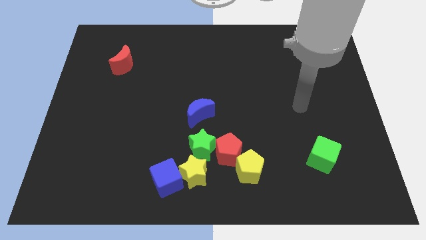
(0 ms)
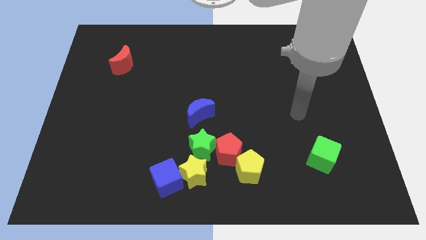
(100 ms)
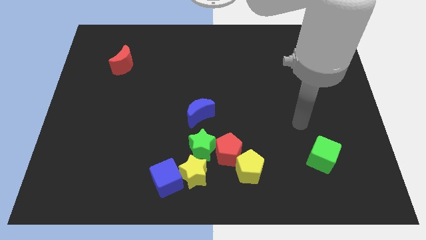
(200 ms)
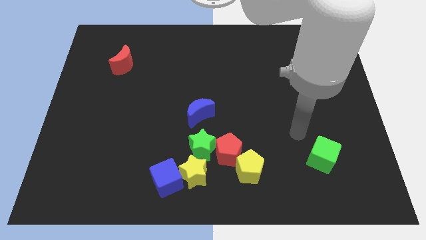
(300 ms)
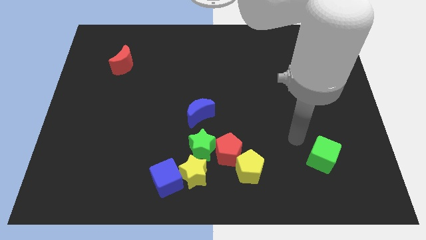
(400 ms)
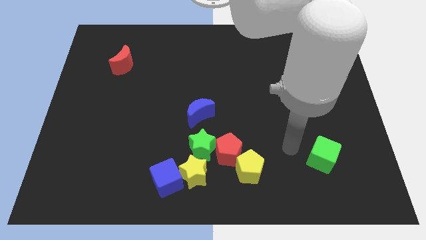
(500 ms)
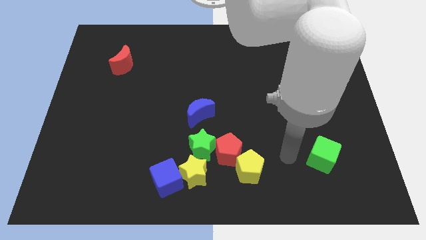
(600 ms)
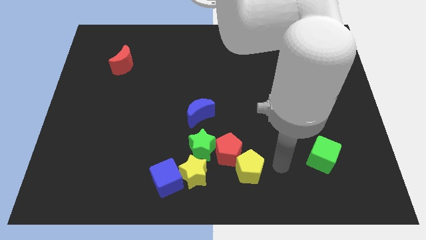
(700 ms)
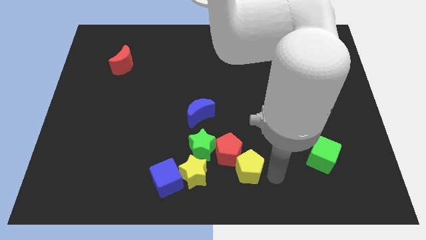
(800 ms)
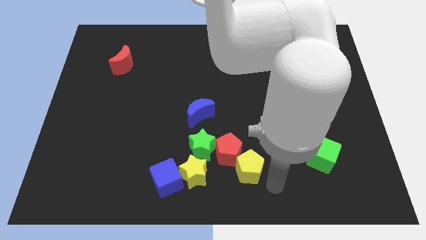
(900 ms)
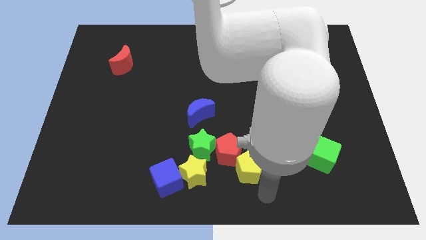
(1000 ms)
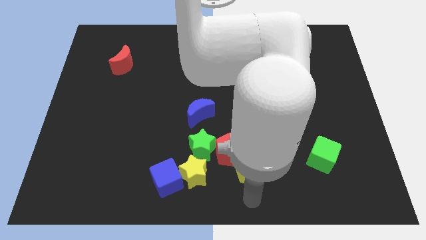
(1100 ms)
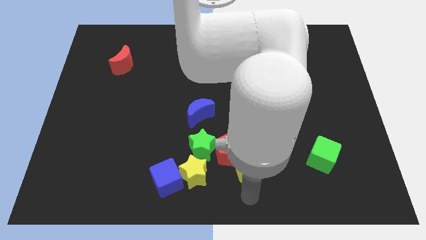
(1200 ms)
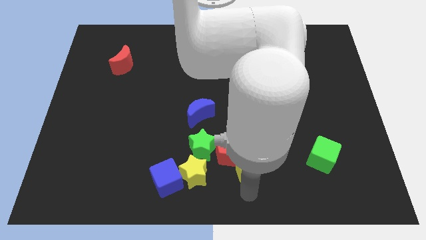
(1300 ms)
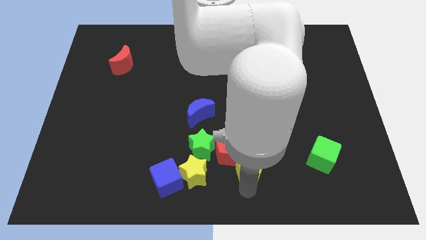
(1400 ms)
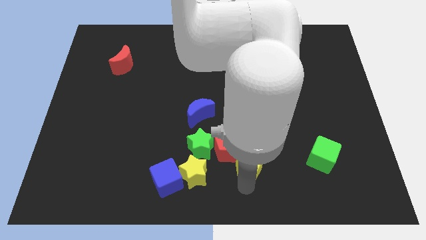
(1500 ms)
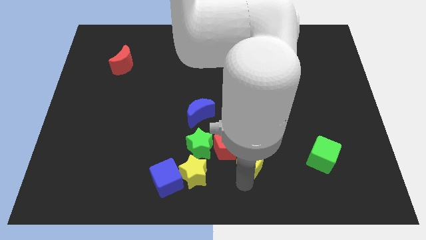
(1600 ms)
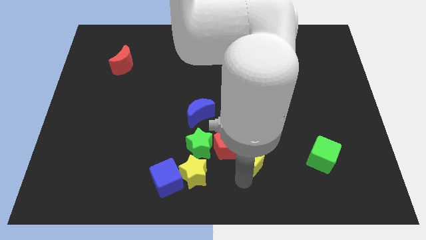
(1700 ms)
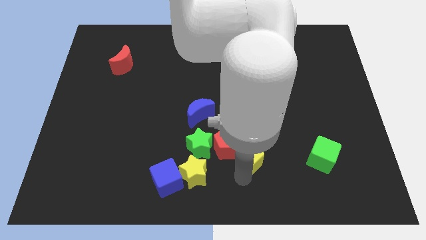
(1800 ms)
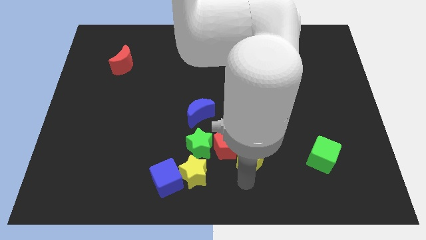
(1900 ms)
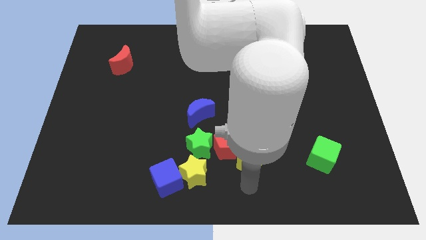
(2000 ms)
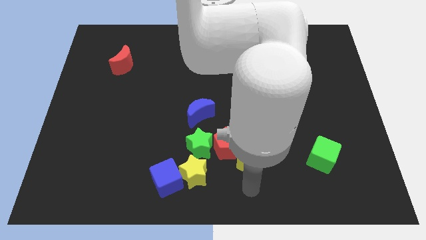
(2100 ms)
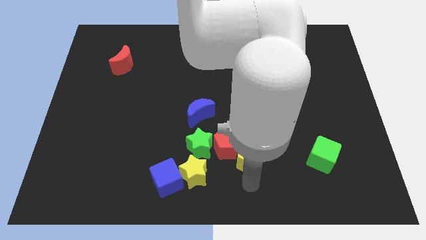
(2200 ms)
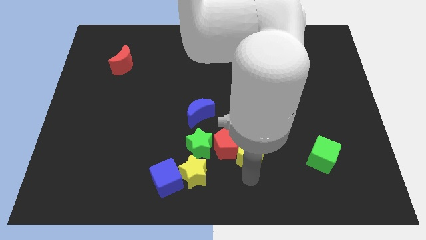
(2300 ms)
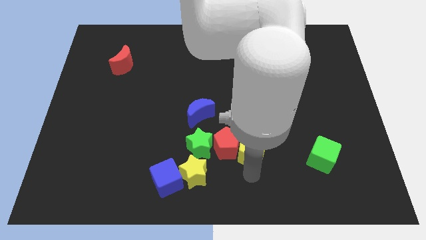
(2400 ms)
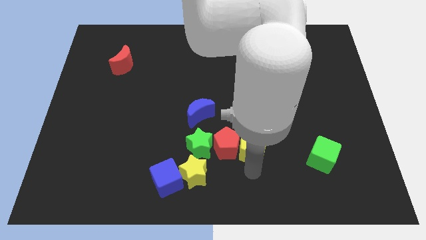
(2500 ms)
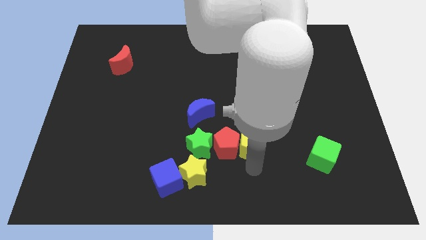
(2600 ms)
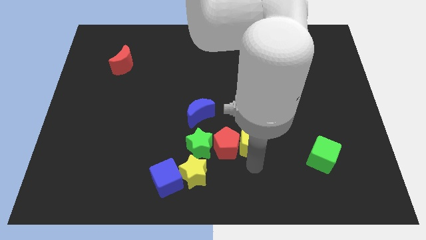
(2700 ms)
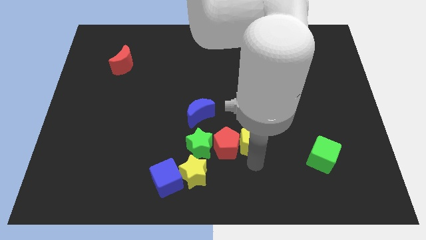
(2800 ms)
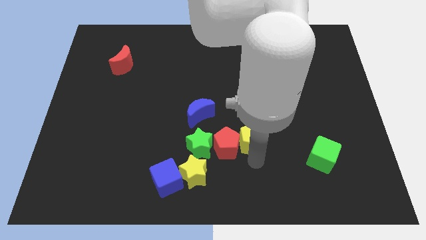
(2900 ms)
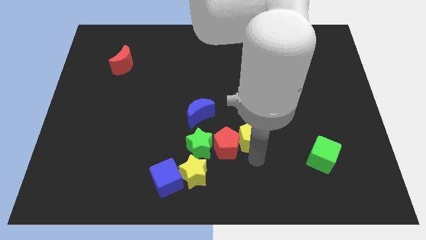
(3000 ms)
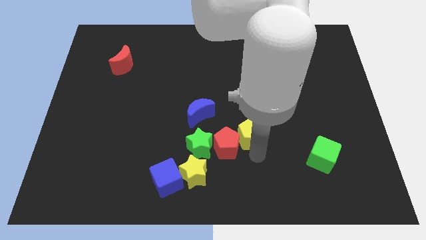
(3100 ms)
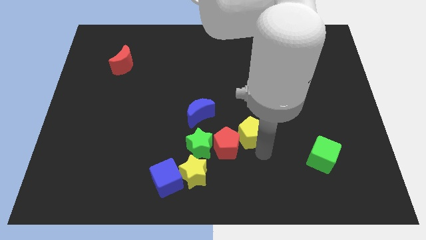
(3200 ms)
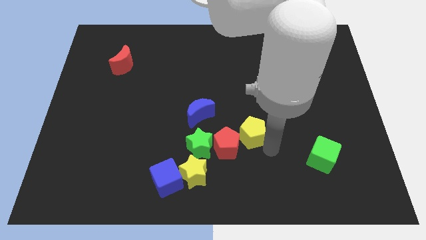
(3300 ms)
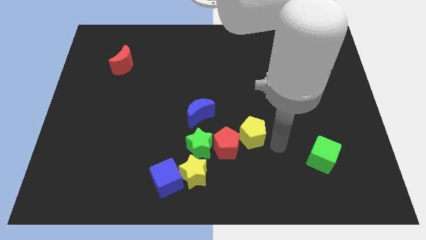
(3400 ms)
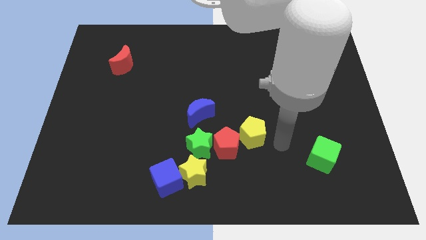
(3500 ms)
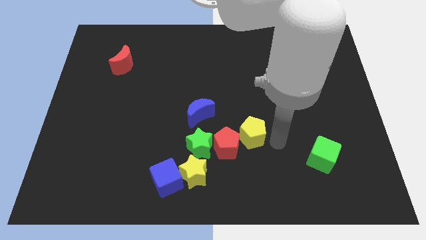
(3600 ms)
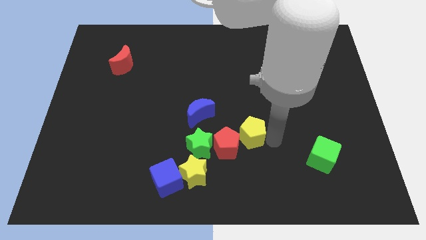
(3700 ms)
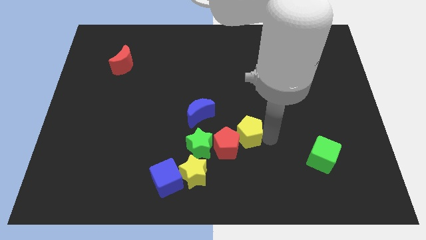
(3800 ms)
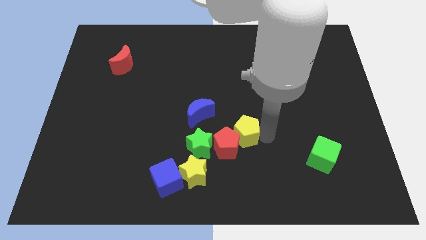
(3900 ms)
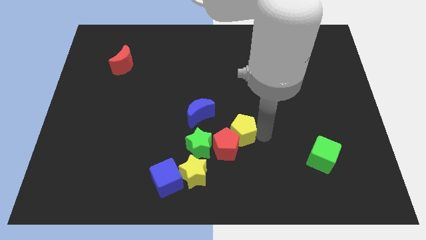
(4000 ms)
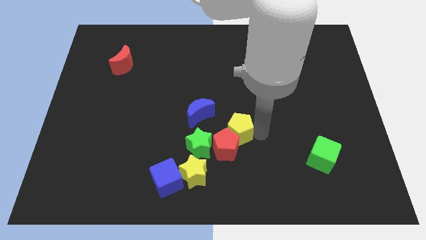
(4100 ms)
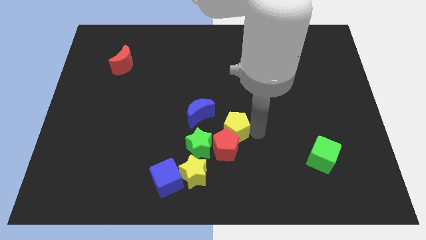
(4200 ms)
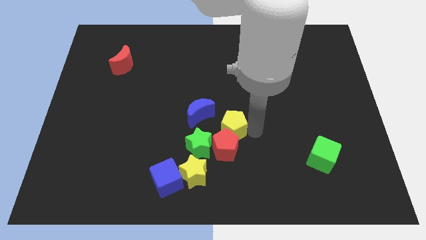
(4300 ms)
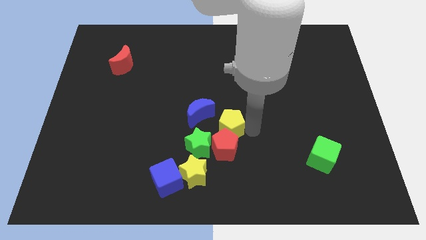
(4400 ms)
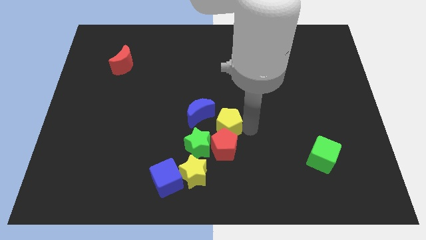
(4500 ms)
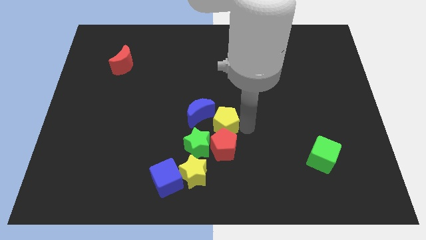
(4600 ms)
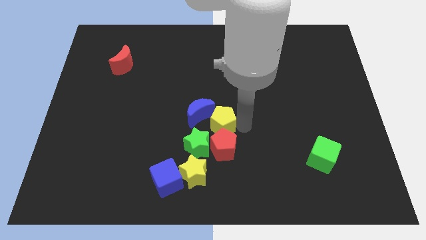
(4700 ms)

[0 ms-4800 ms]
put the yellow pentagon to the blue moon

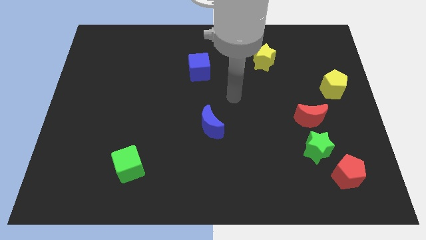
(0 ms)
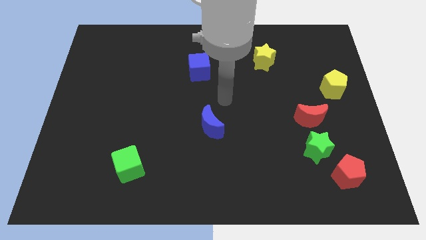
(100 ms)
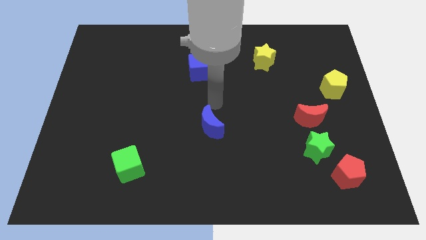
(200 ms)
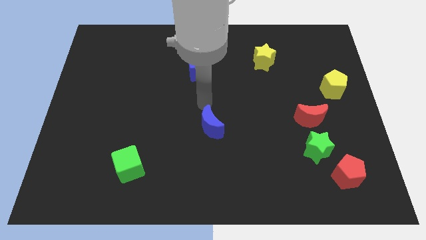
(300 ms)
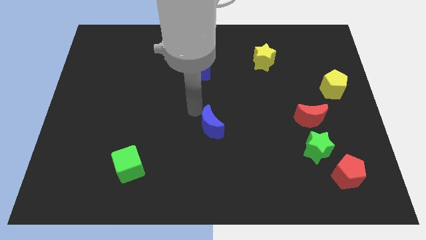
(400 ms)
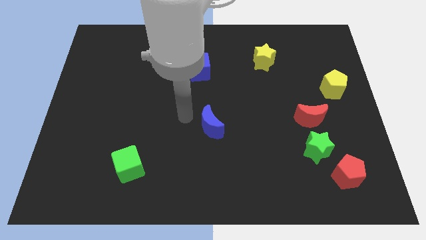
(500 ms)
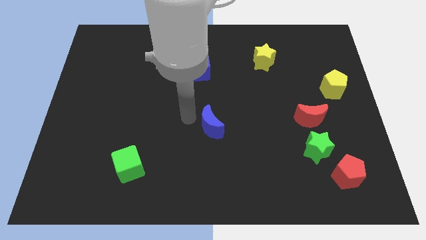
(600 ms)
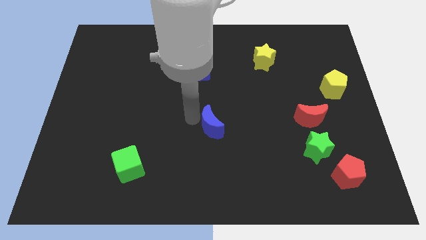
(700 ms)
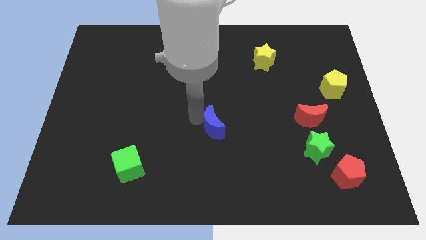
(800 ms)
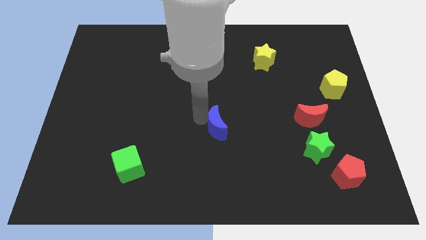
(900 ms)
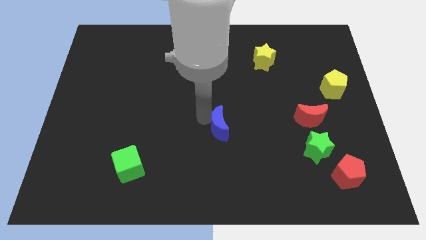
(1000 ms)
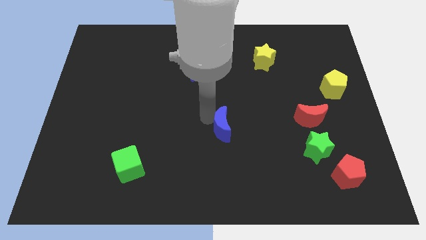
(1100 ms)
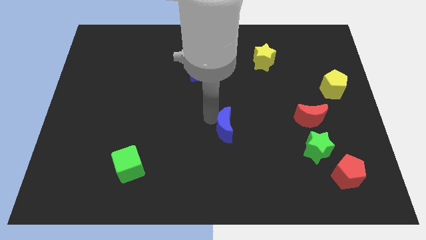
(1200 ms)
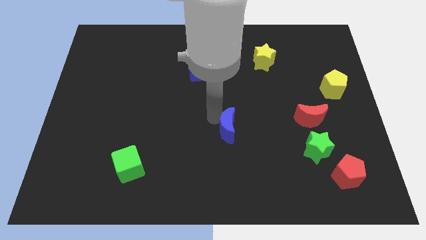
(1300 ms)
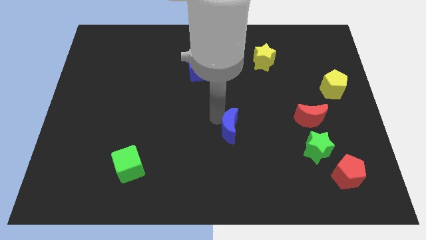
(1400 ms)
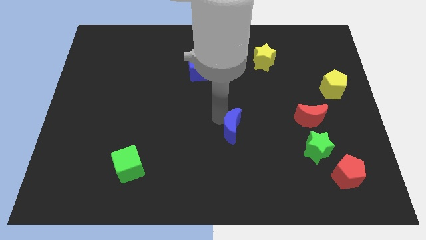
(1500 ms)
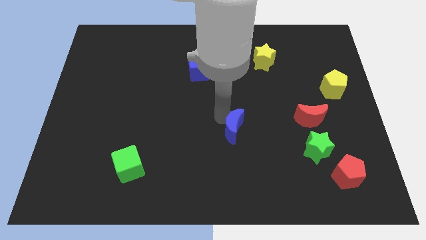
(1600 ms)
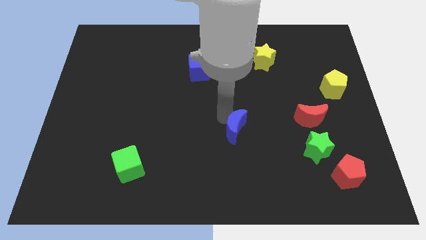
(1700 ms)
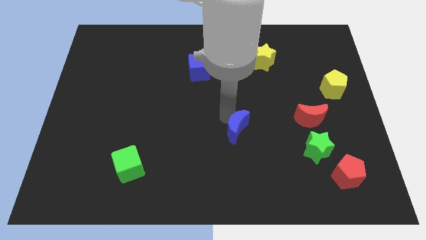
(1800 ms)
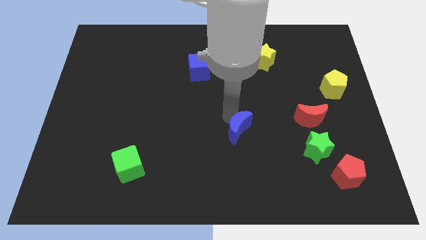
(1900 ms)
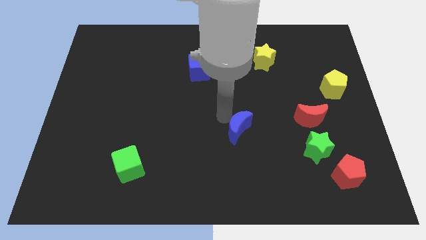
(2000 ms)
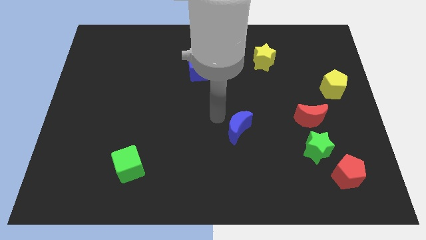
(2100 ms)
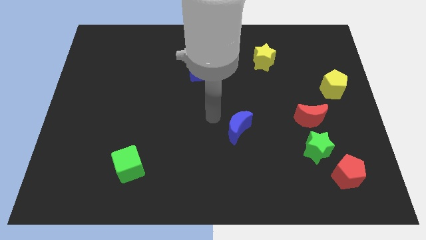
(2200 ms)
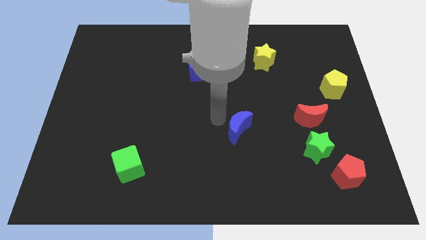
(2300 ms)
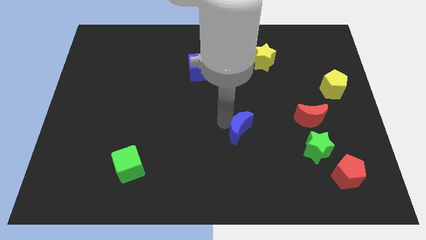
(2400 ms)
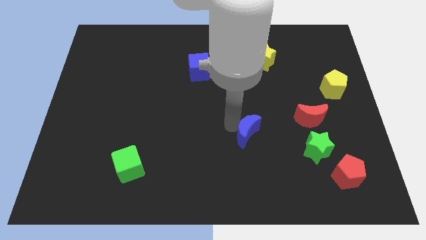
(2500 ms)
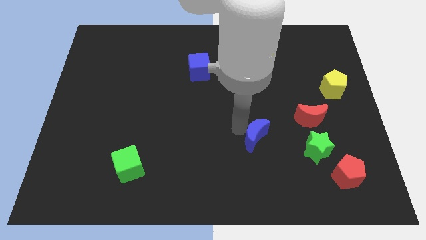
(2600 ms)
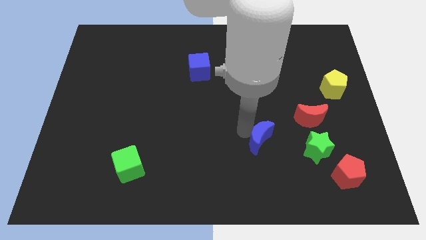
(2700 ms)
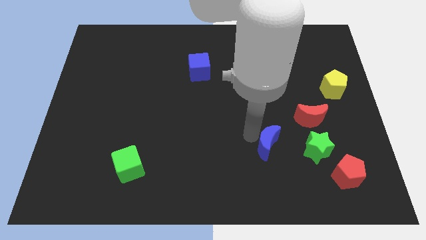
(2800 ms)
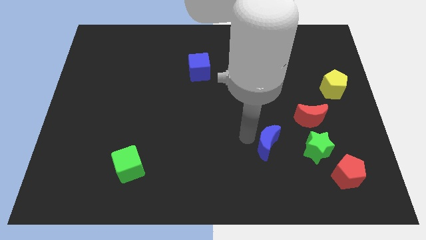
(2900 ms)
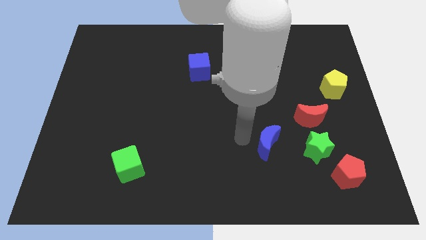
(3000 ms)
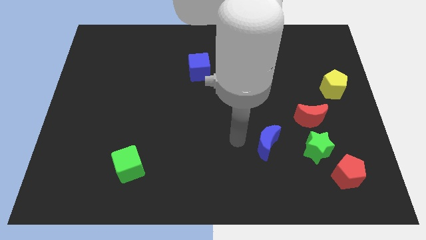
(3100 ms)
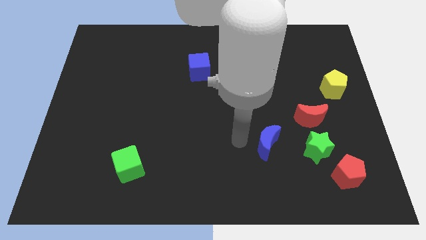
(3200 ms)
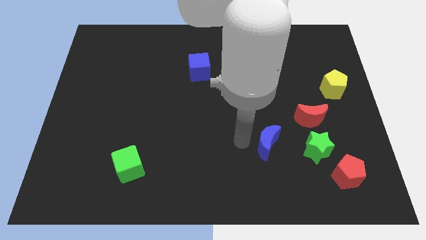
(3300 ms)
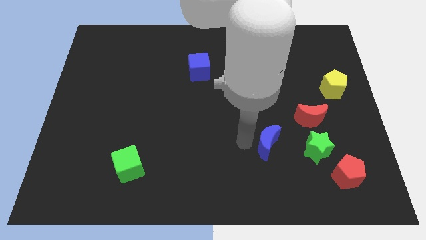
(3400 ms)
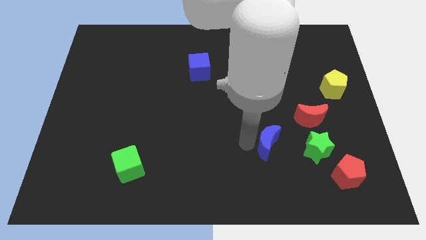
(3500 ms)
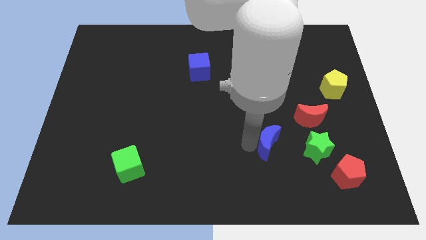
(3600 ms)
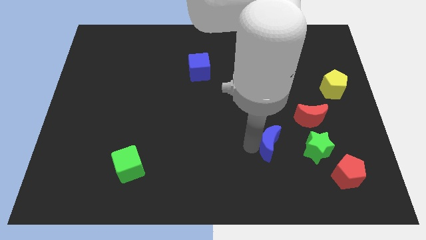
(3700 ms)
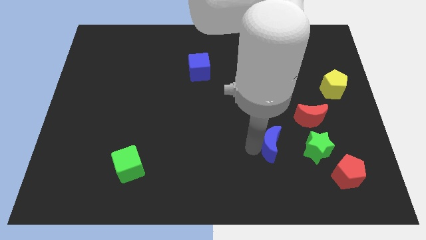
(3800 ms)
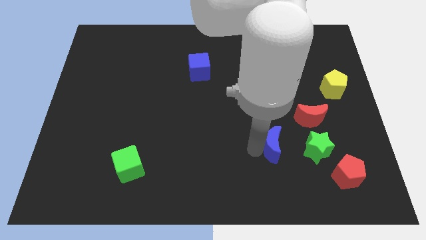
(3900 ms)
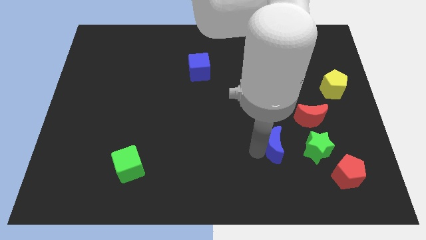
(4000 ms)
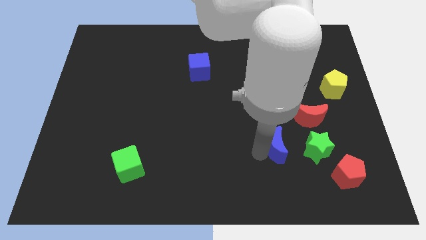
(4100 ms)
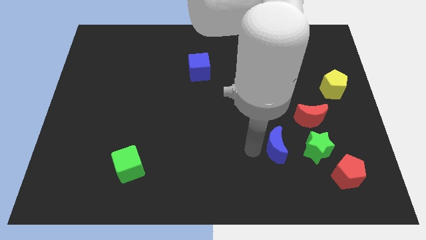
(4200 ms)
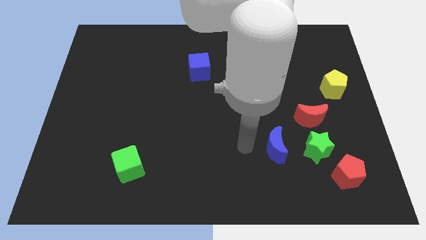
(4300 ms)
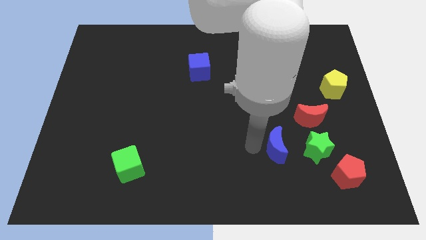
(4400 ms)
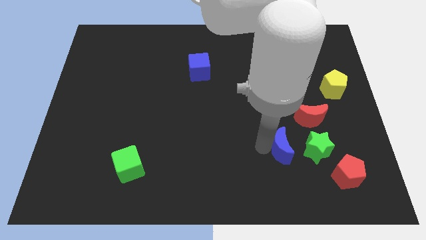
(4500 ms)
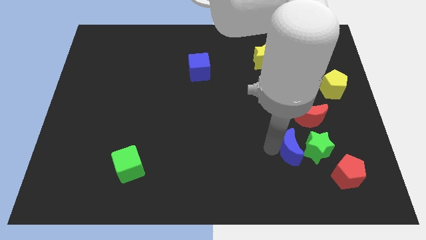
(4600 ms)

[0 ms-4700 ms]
slide the blue moon towards the green star
